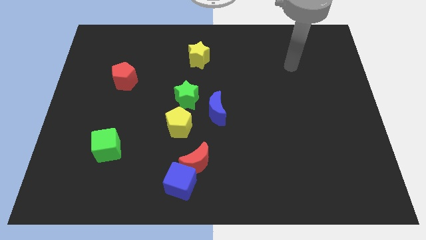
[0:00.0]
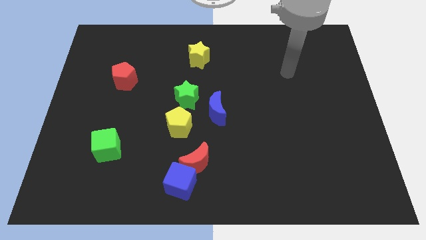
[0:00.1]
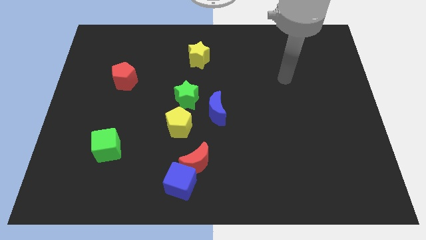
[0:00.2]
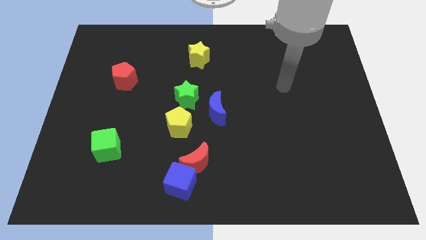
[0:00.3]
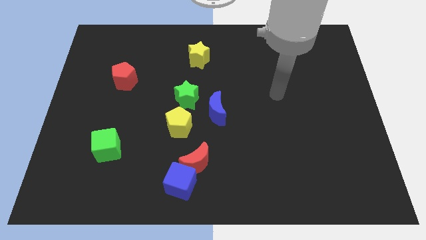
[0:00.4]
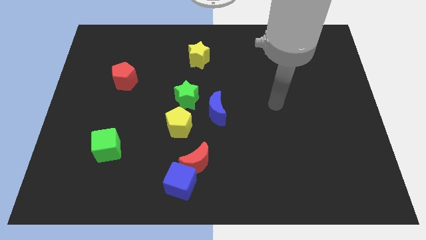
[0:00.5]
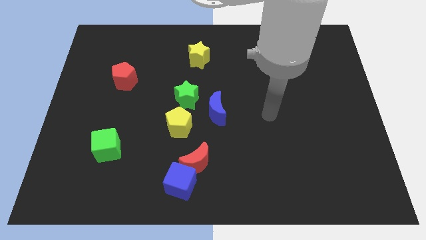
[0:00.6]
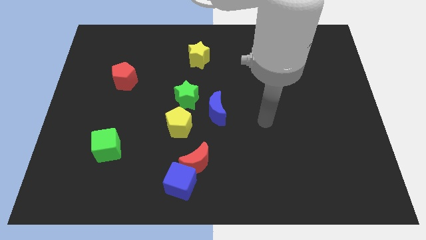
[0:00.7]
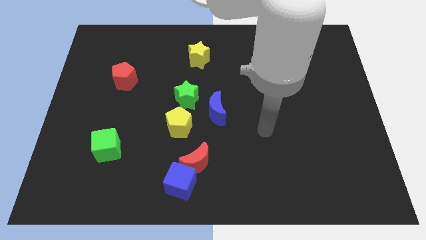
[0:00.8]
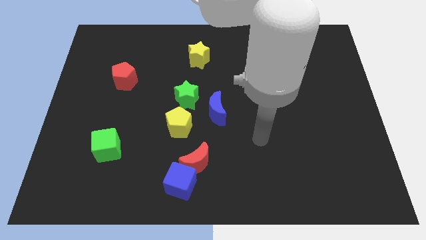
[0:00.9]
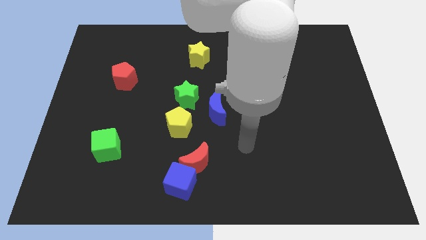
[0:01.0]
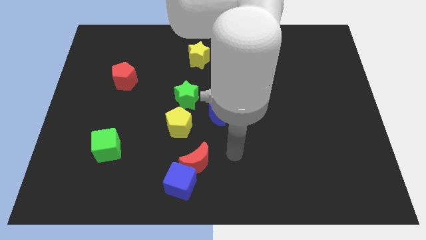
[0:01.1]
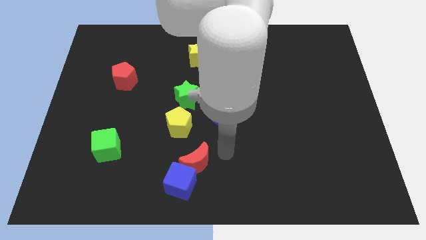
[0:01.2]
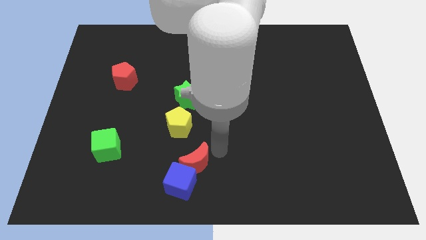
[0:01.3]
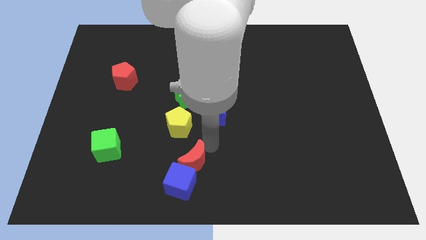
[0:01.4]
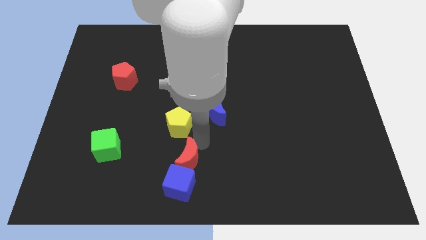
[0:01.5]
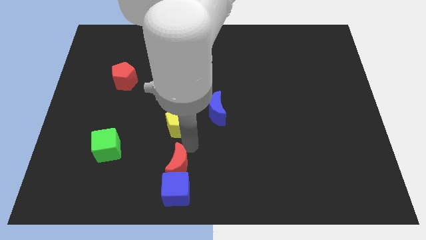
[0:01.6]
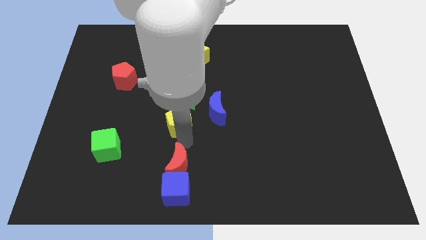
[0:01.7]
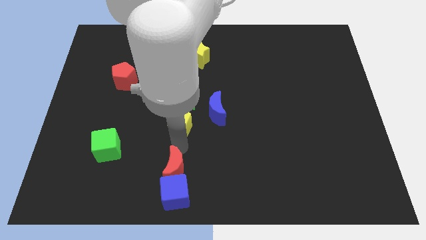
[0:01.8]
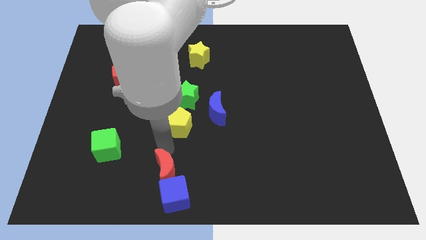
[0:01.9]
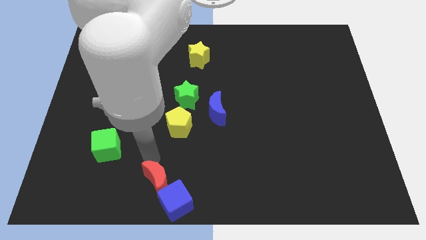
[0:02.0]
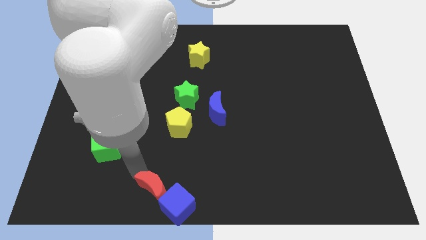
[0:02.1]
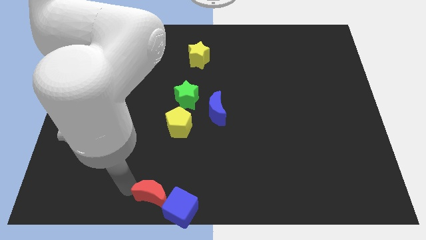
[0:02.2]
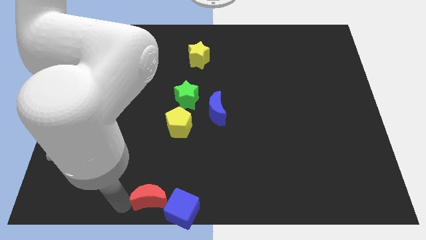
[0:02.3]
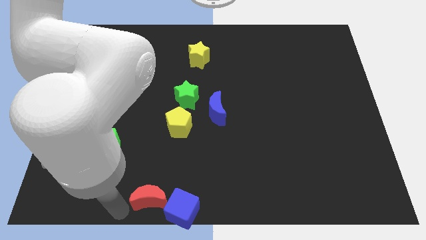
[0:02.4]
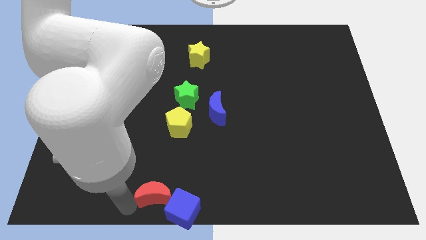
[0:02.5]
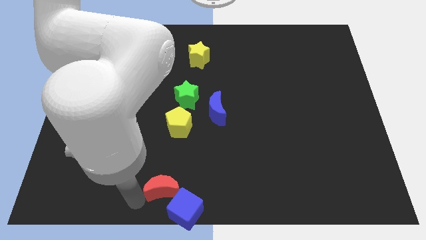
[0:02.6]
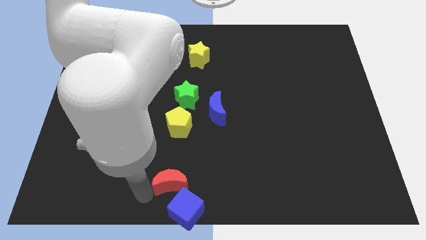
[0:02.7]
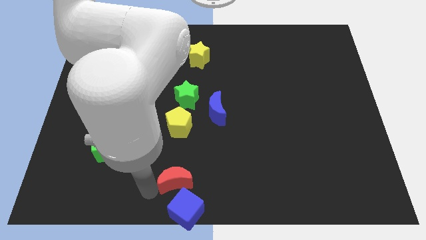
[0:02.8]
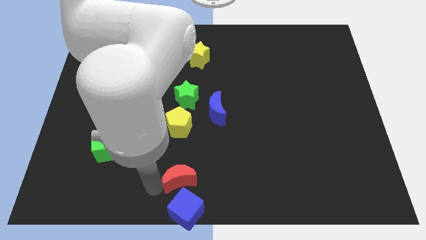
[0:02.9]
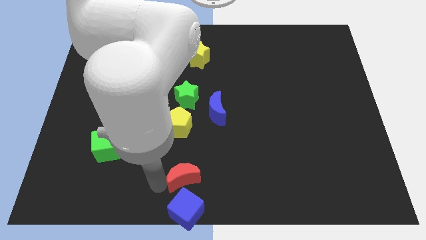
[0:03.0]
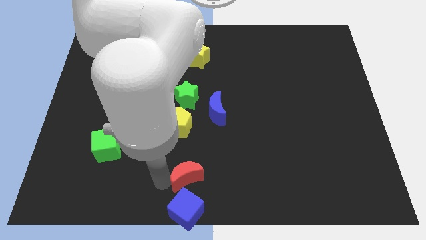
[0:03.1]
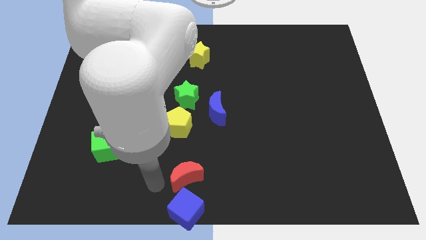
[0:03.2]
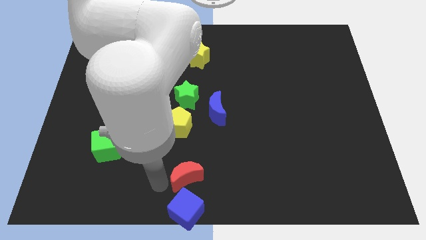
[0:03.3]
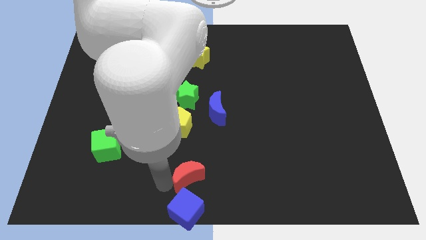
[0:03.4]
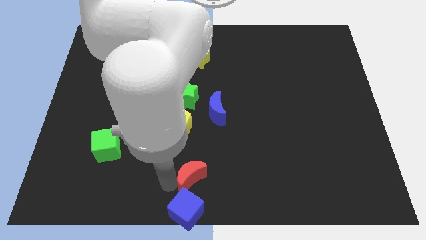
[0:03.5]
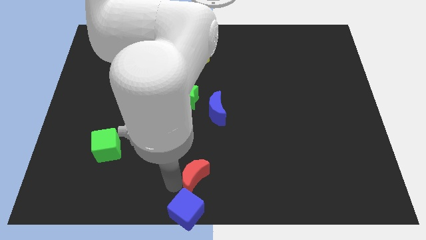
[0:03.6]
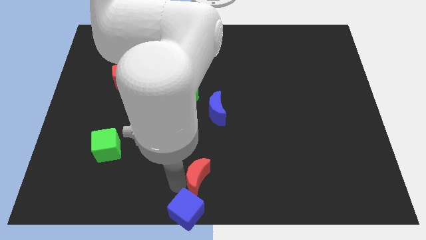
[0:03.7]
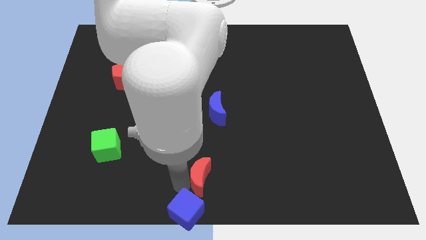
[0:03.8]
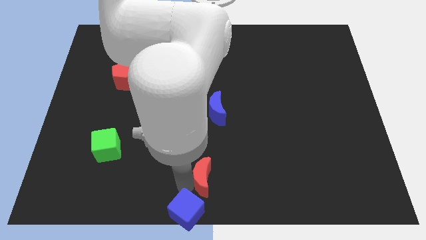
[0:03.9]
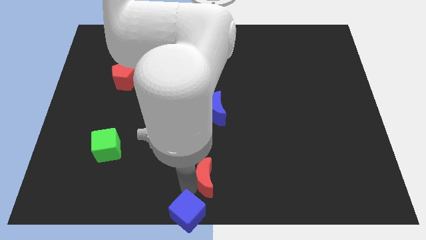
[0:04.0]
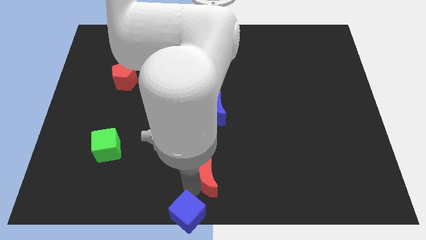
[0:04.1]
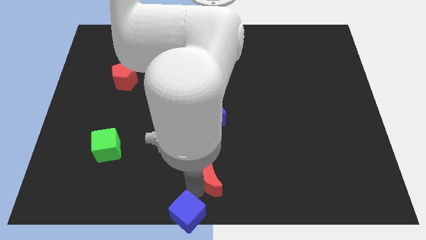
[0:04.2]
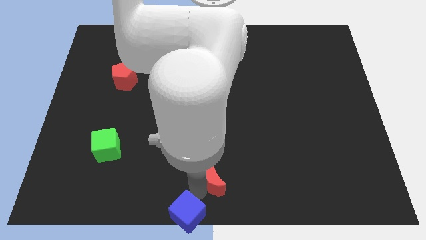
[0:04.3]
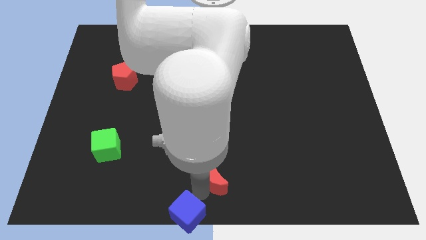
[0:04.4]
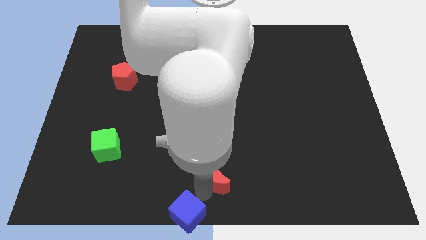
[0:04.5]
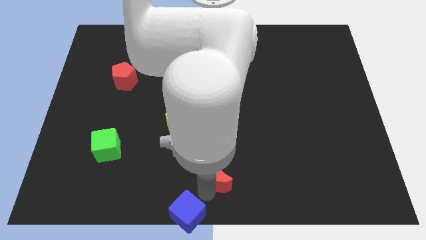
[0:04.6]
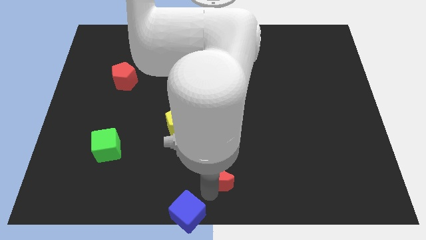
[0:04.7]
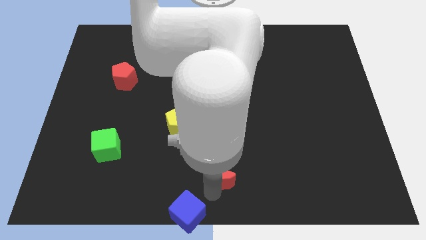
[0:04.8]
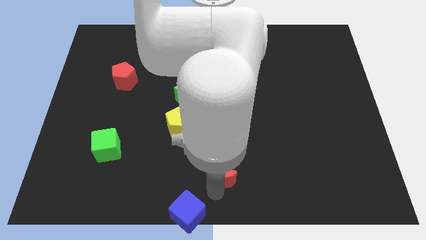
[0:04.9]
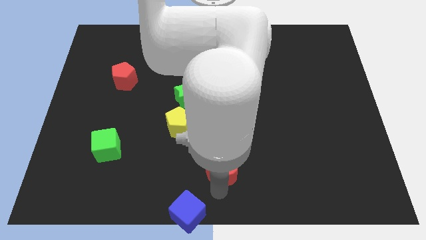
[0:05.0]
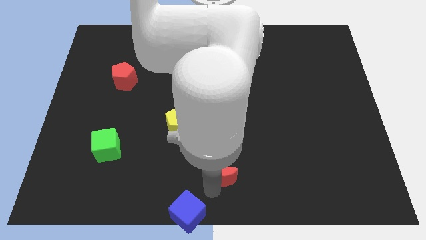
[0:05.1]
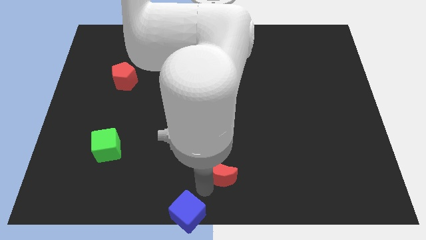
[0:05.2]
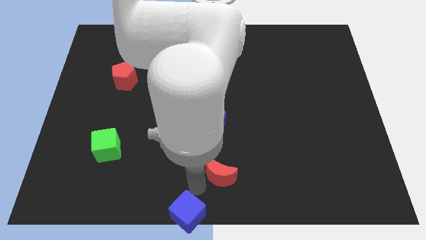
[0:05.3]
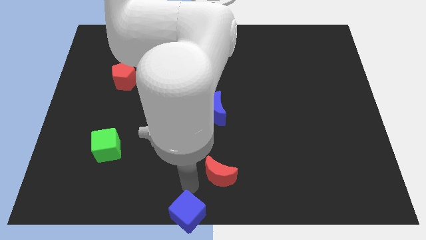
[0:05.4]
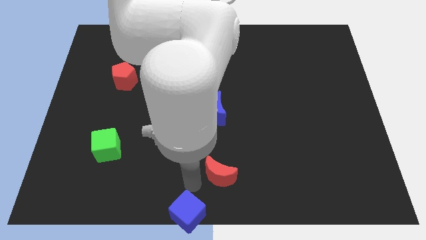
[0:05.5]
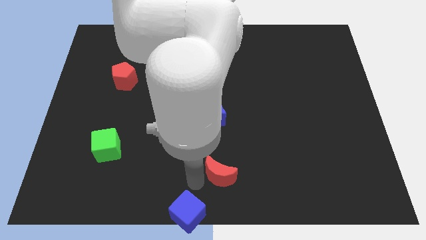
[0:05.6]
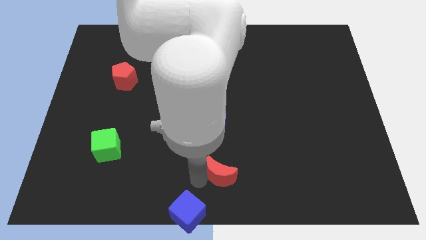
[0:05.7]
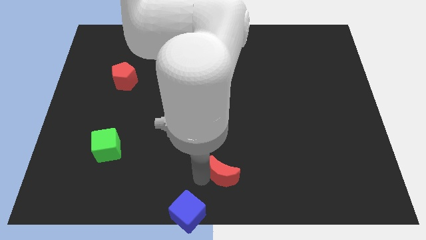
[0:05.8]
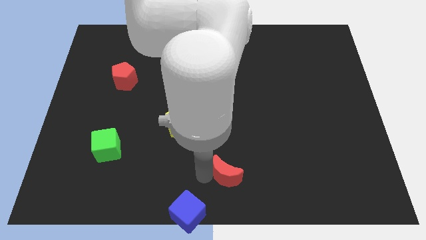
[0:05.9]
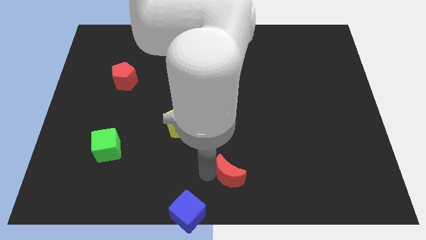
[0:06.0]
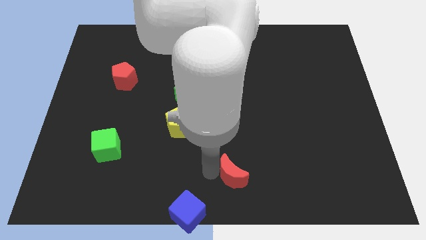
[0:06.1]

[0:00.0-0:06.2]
slightly slide the red moon right

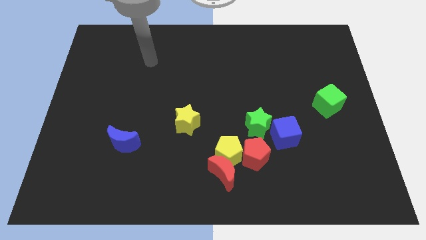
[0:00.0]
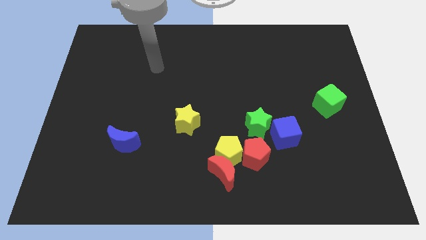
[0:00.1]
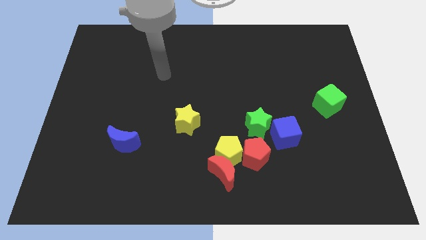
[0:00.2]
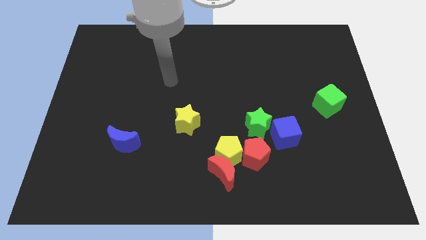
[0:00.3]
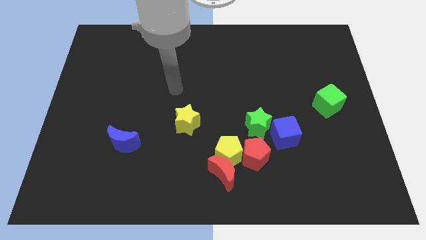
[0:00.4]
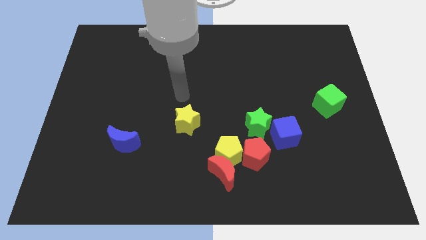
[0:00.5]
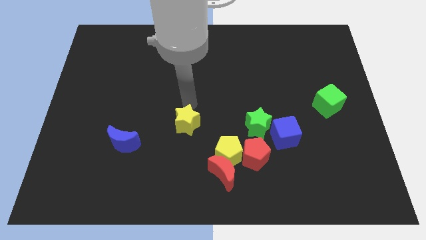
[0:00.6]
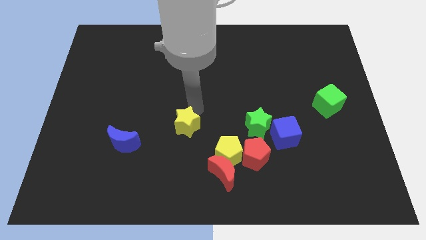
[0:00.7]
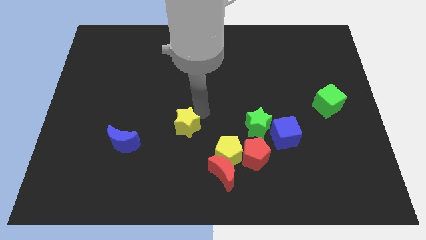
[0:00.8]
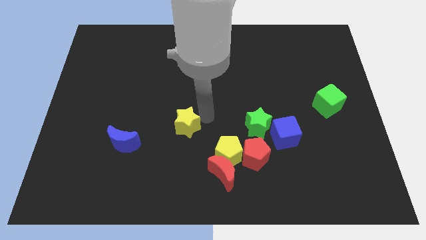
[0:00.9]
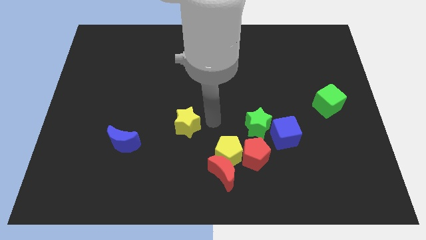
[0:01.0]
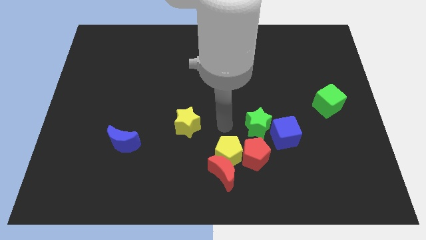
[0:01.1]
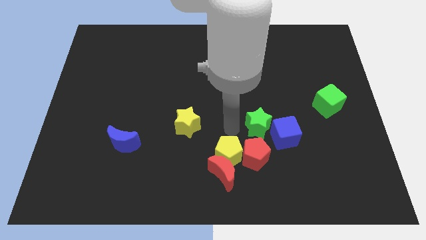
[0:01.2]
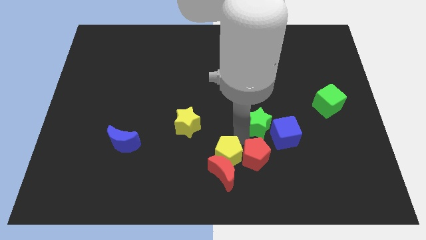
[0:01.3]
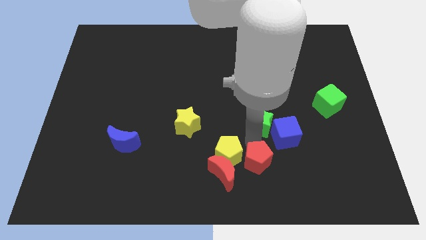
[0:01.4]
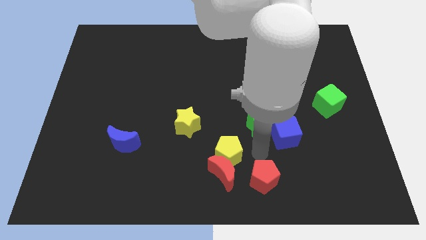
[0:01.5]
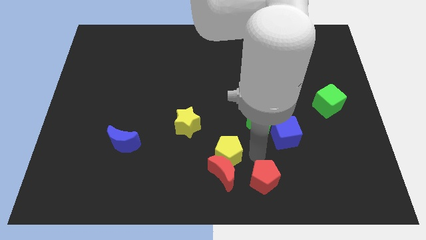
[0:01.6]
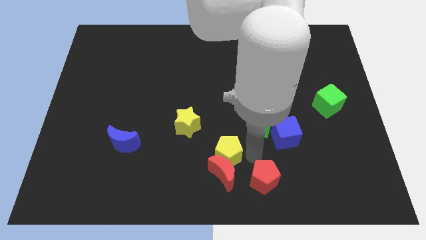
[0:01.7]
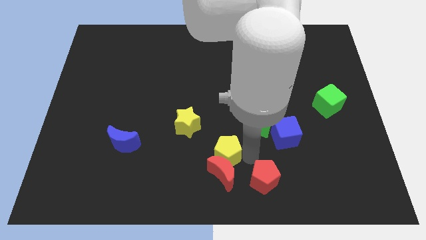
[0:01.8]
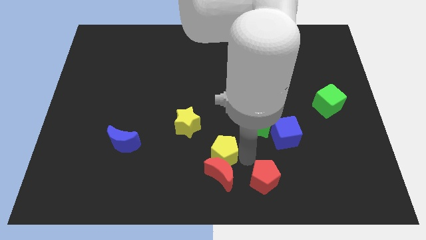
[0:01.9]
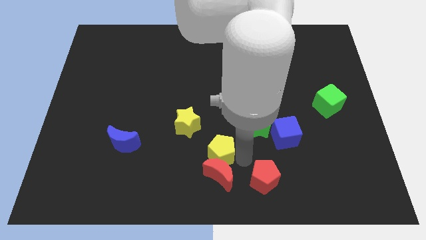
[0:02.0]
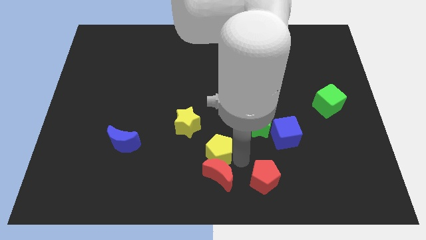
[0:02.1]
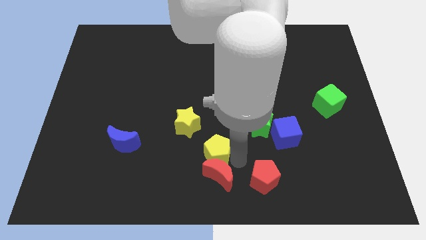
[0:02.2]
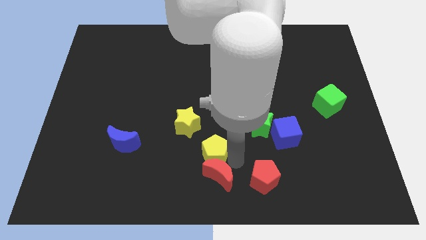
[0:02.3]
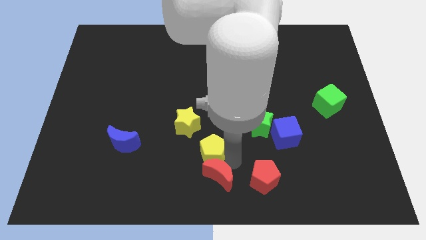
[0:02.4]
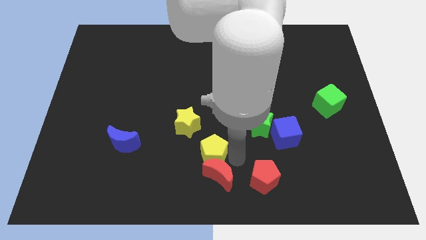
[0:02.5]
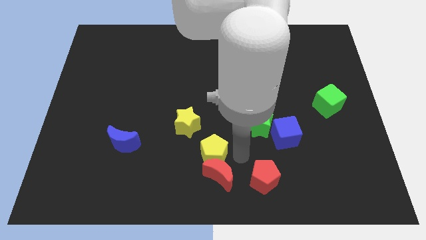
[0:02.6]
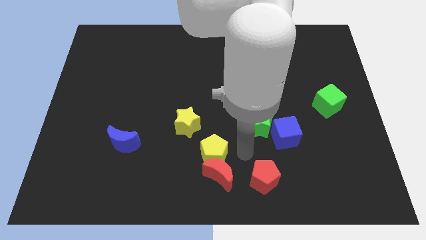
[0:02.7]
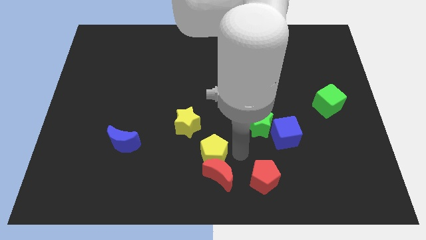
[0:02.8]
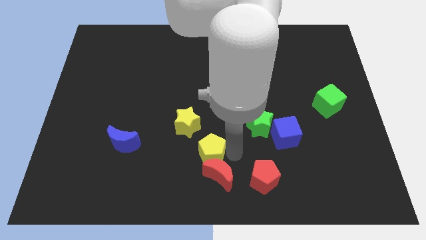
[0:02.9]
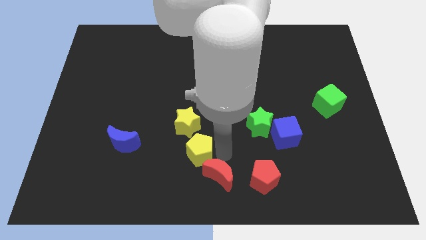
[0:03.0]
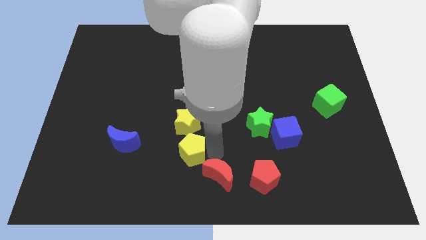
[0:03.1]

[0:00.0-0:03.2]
move the yellow pentagon slightly to the left
